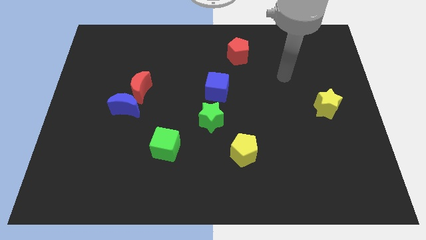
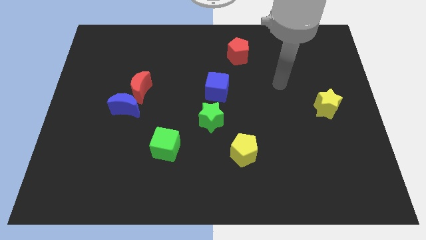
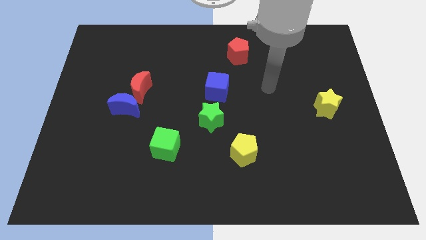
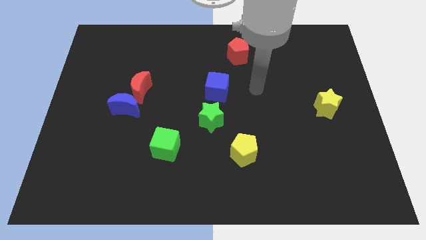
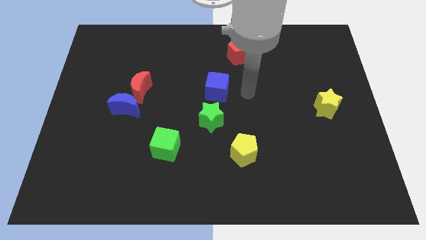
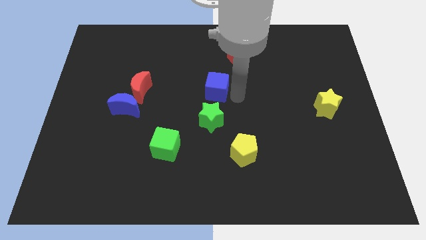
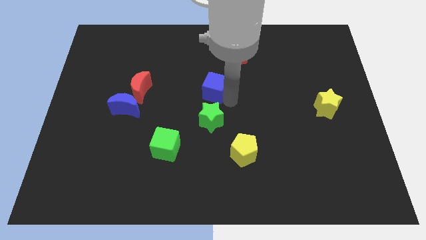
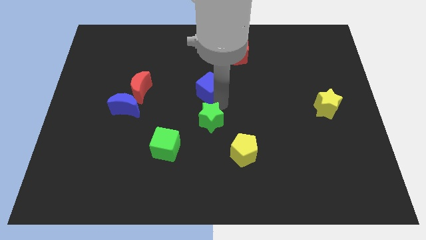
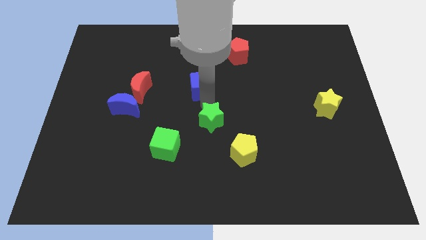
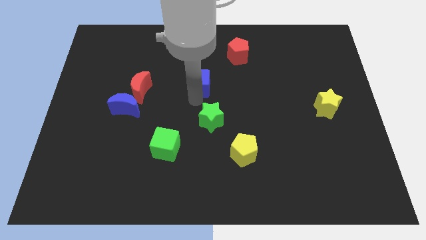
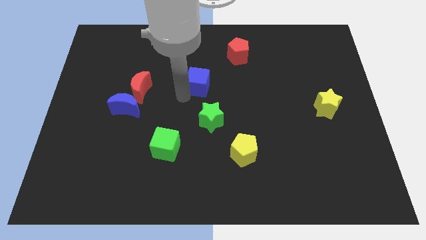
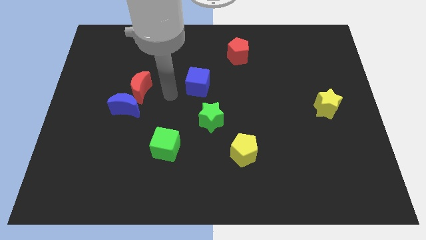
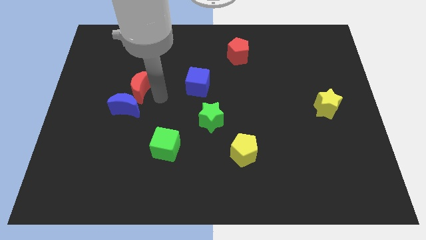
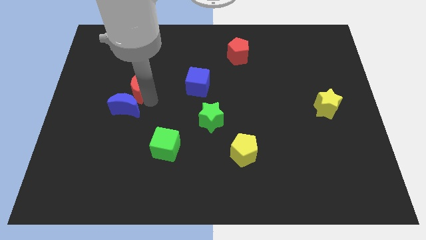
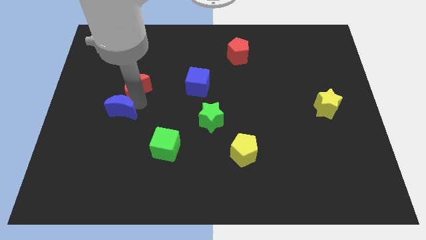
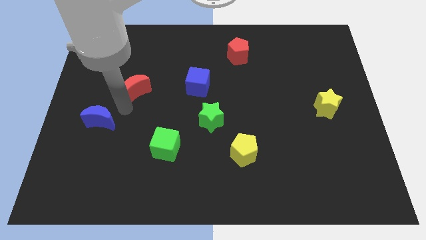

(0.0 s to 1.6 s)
pull the red moon apart from the blue moon

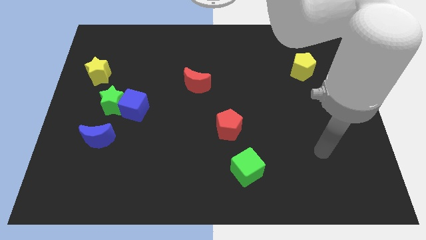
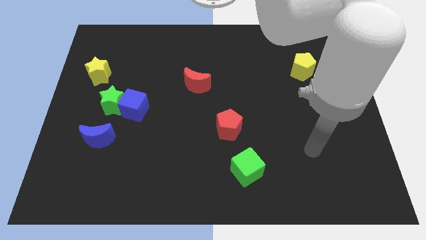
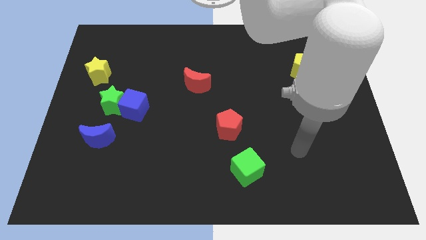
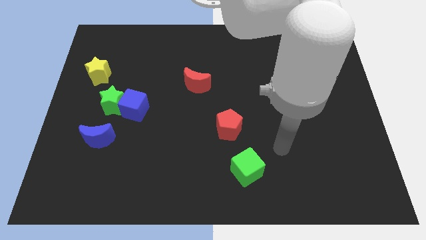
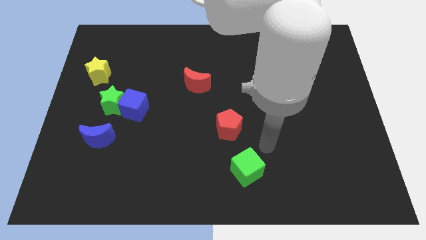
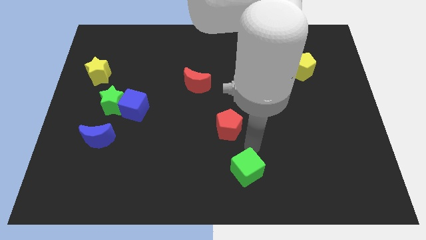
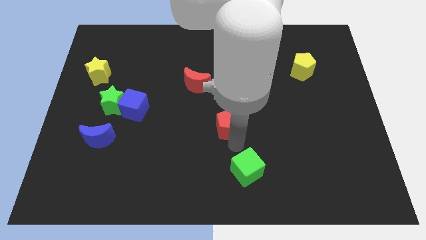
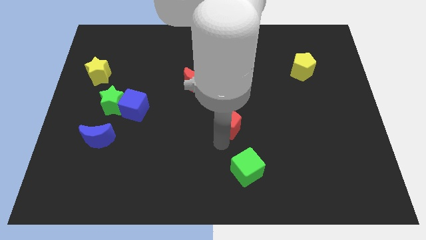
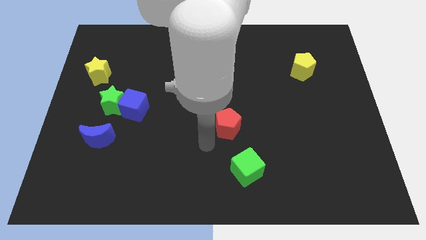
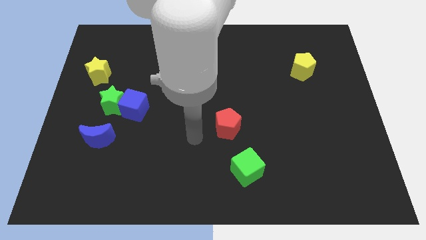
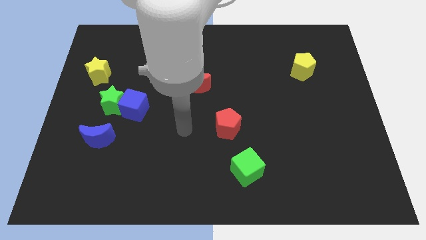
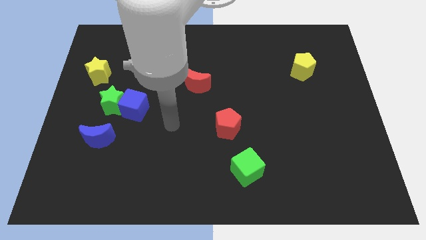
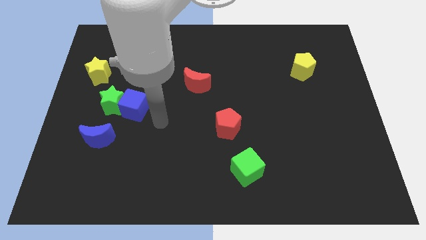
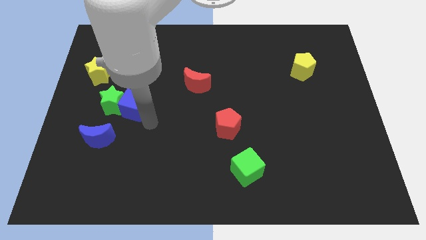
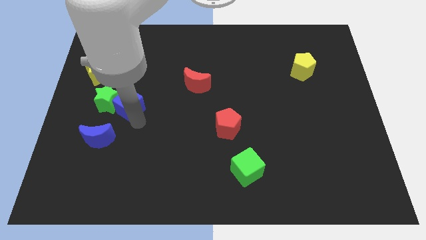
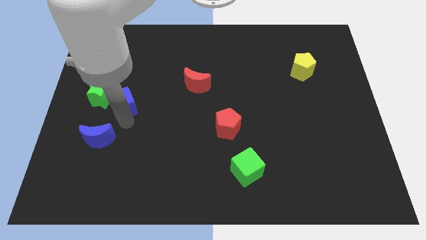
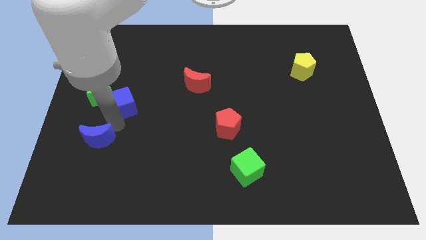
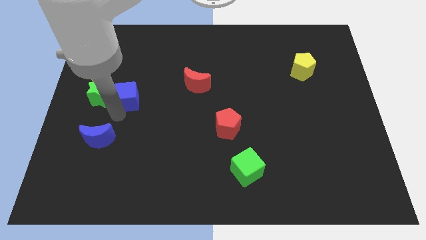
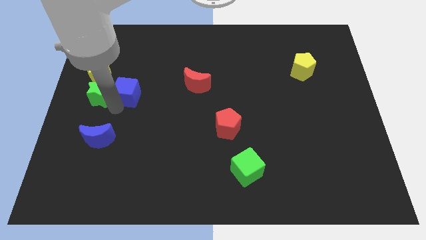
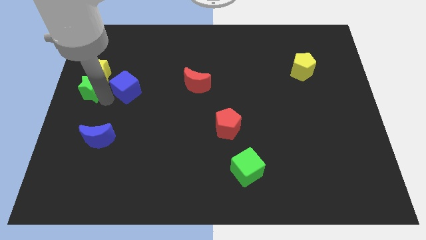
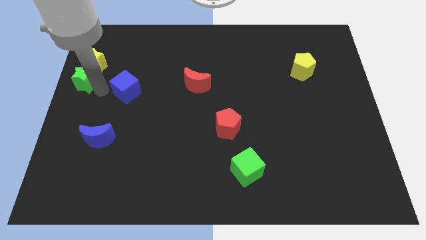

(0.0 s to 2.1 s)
separate the blue cube from the green star

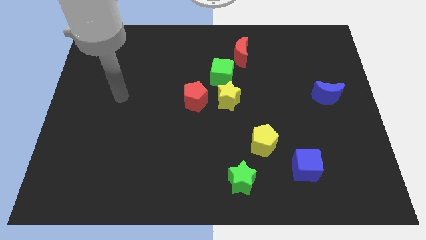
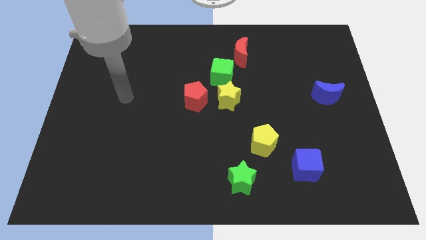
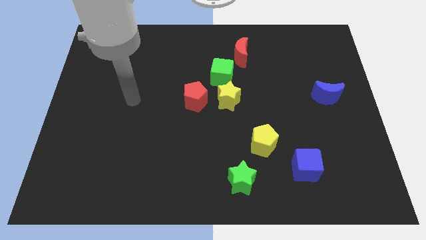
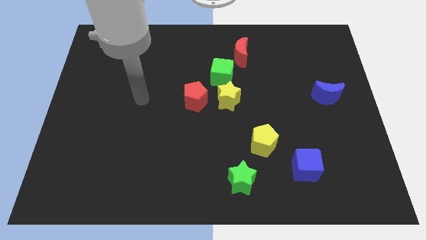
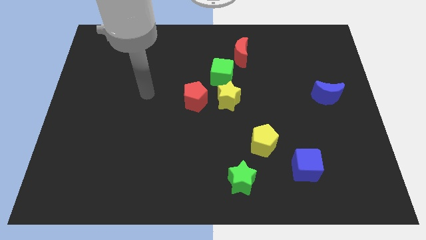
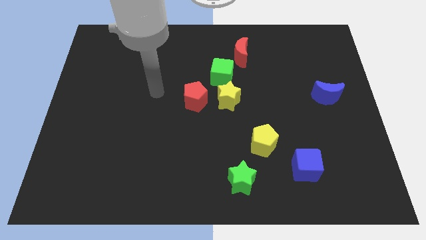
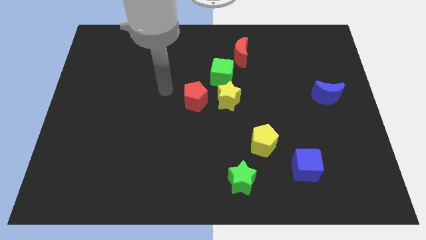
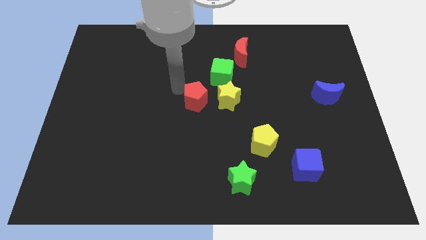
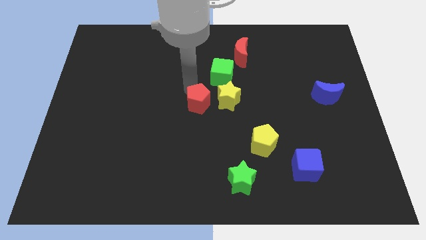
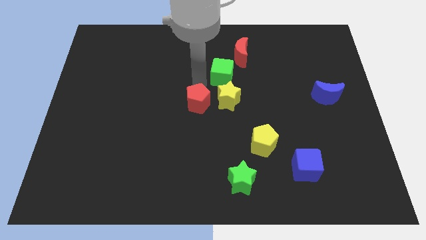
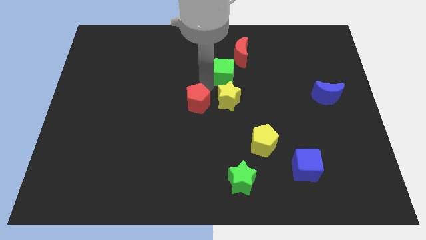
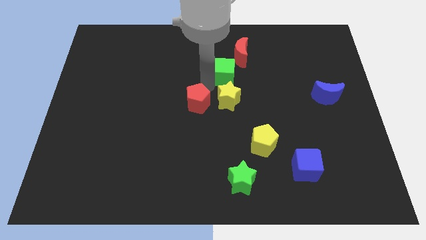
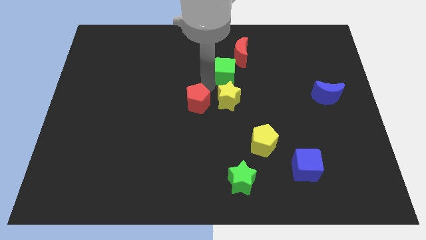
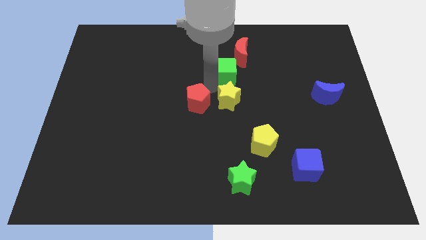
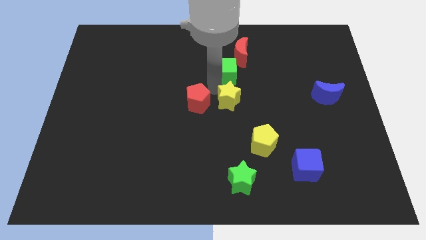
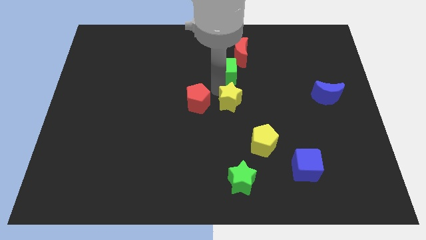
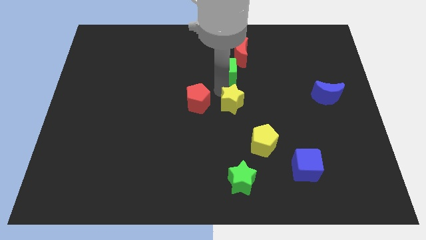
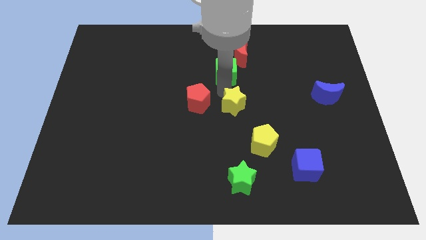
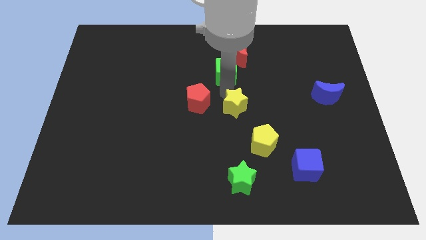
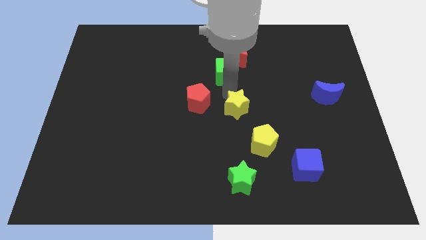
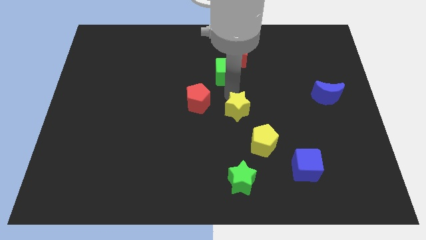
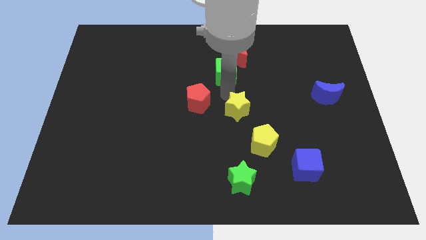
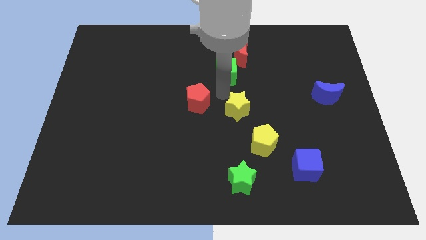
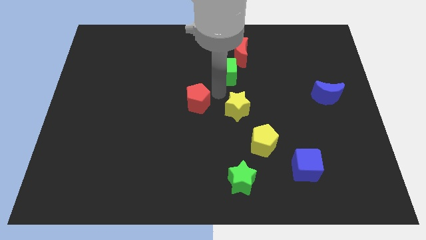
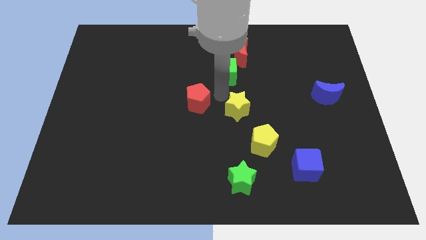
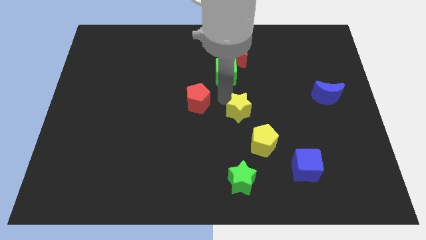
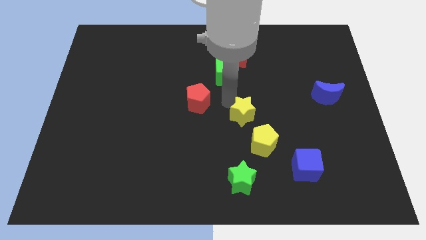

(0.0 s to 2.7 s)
move the yellow star away from the red pentagon and green cube

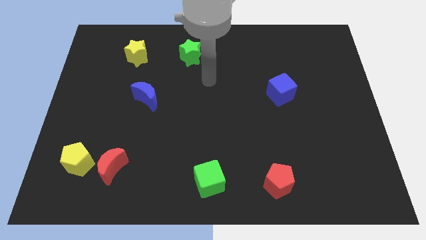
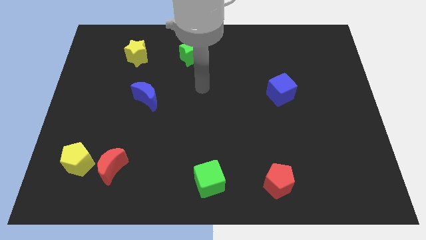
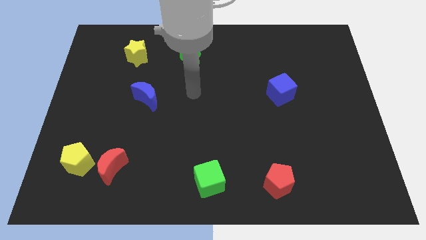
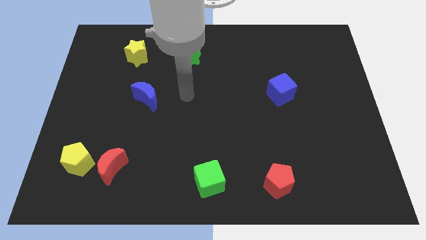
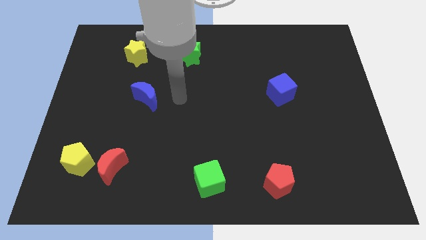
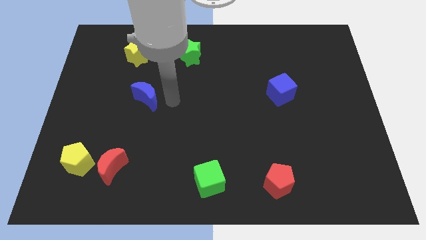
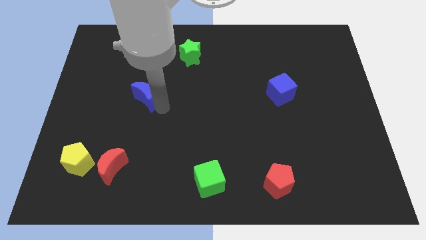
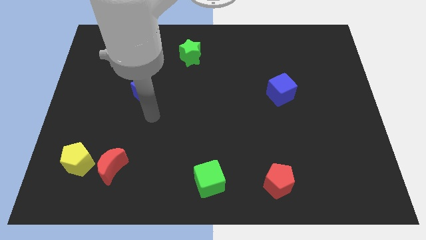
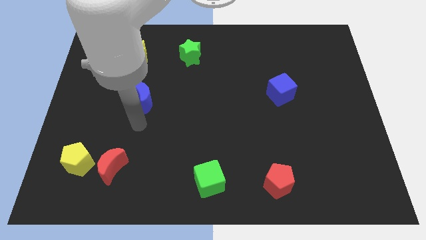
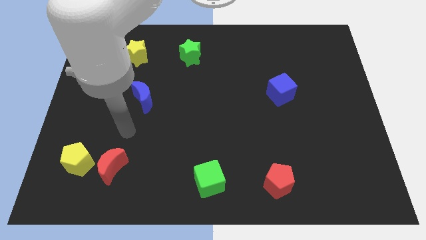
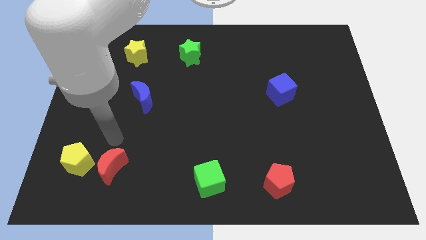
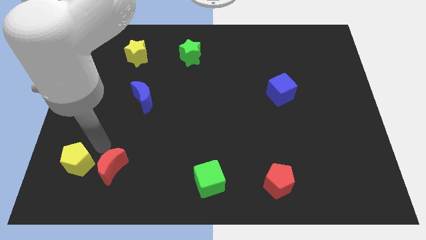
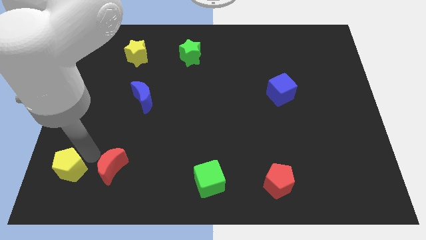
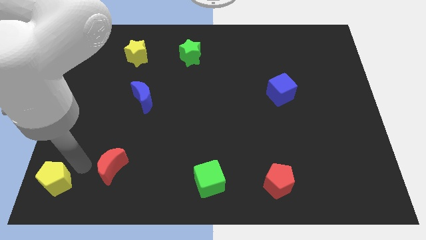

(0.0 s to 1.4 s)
move the red moon away from the yellow pentagon

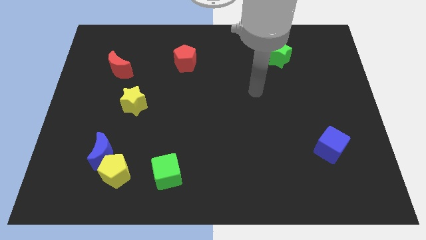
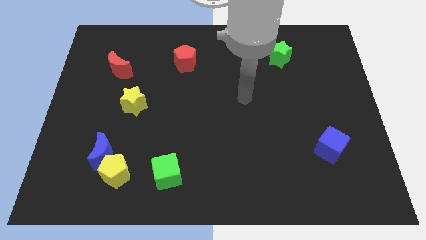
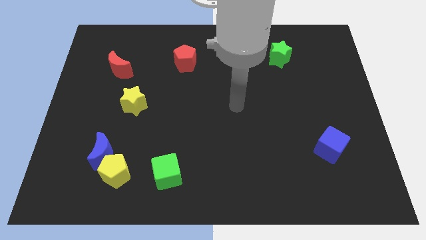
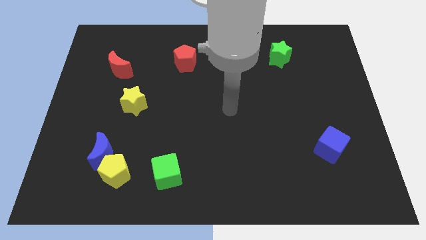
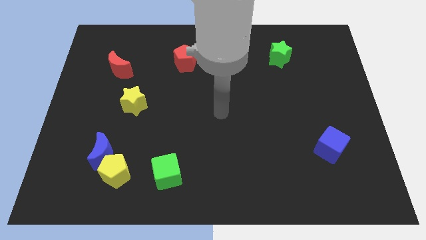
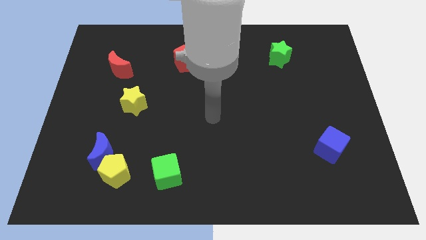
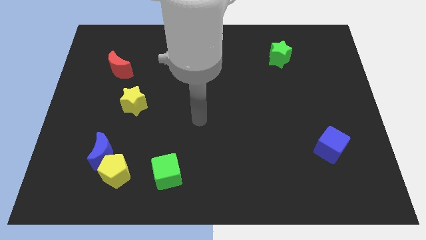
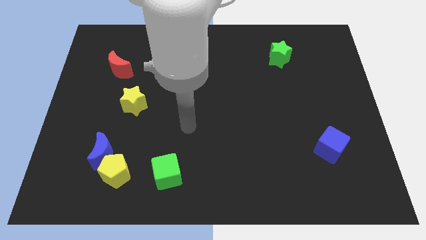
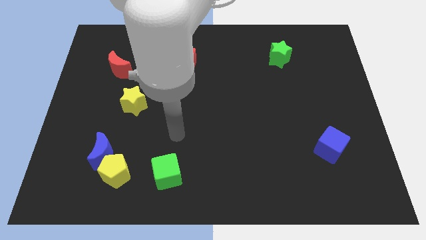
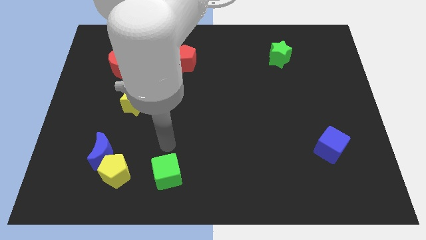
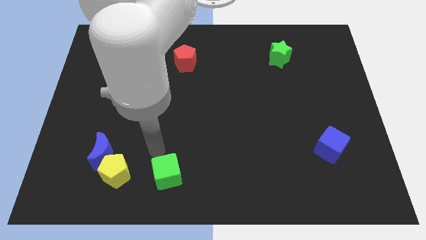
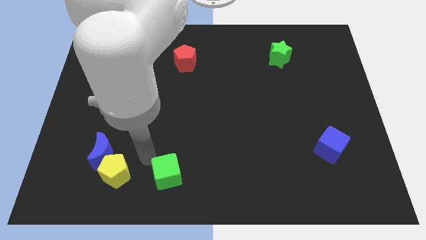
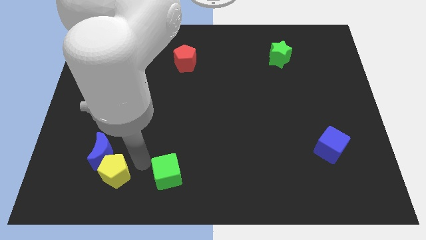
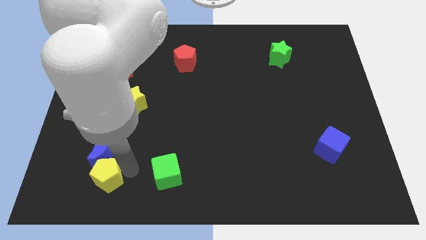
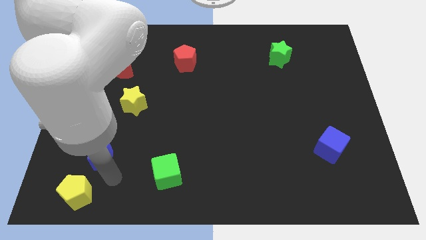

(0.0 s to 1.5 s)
move the blue moon away from the yellow pentagon
